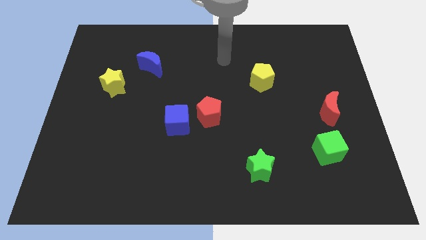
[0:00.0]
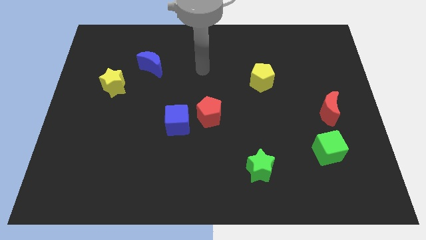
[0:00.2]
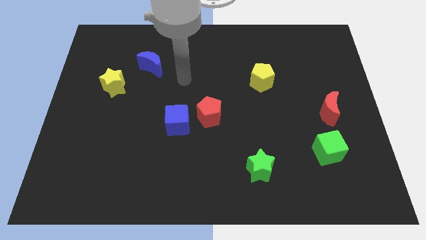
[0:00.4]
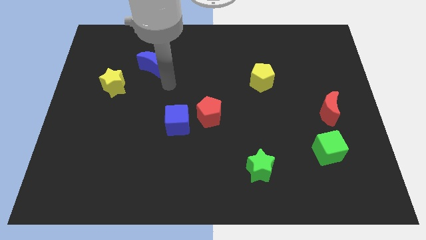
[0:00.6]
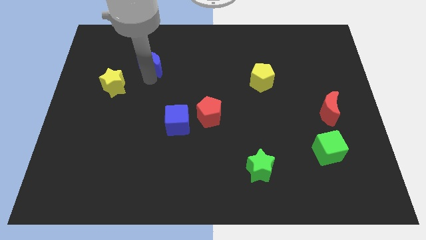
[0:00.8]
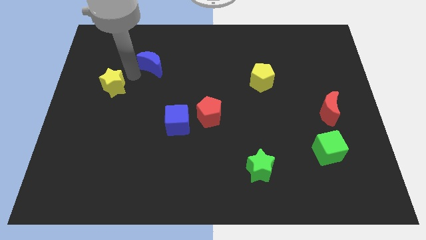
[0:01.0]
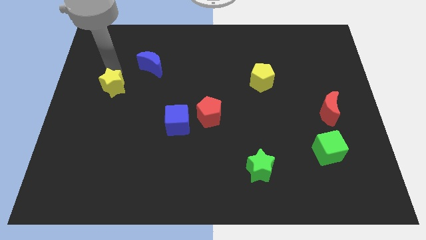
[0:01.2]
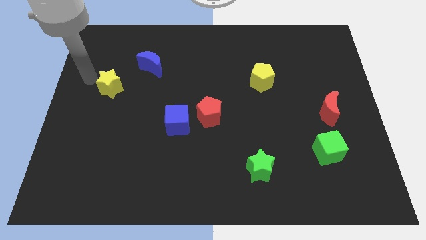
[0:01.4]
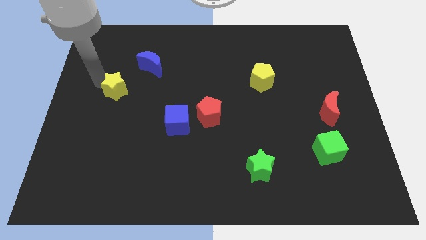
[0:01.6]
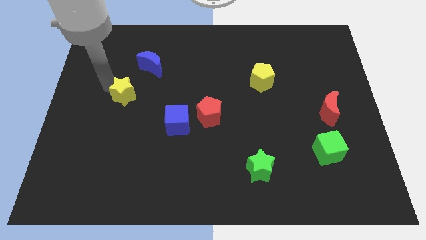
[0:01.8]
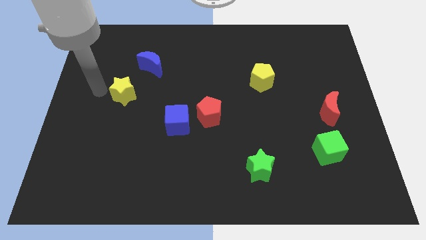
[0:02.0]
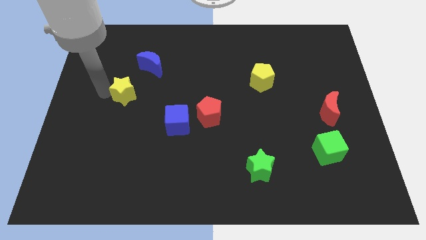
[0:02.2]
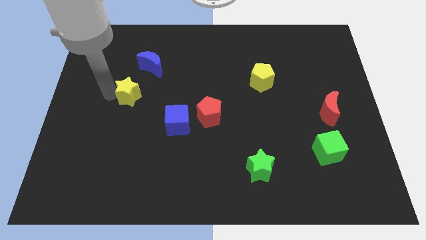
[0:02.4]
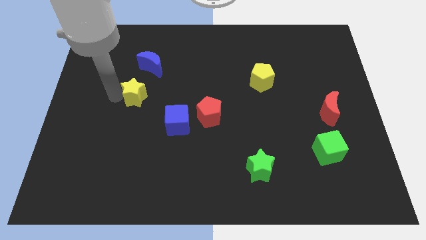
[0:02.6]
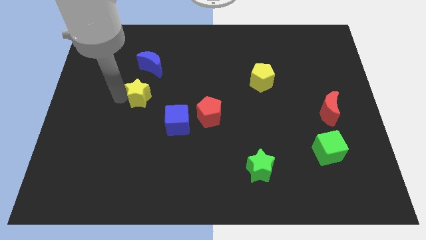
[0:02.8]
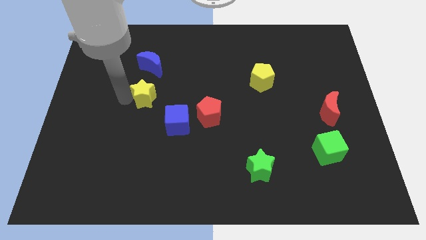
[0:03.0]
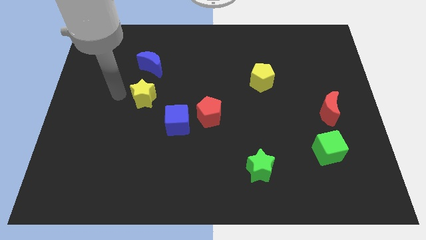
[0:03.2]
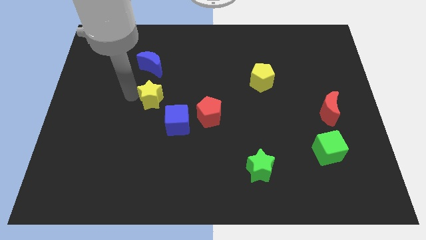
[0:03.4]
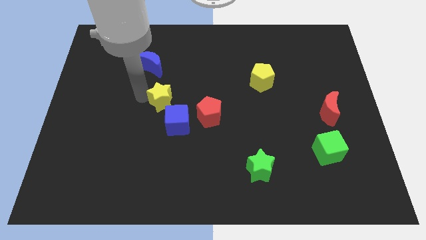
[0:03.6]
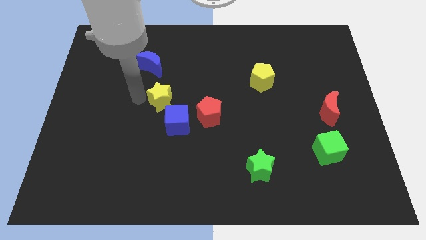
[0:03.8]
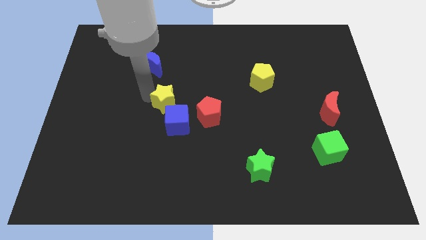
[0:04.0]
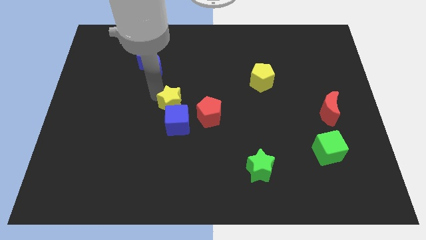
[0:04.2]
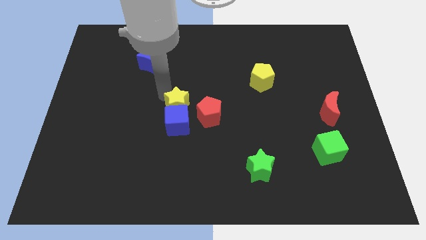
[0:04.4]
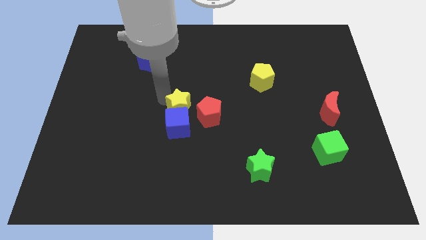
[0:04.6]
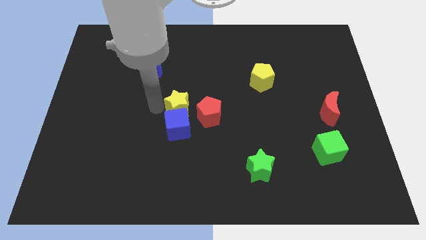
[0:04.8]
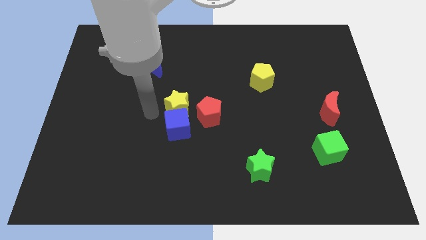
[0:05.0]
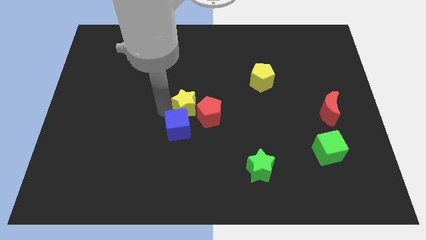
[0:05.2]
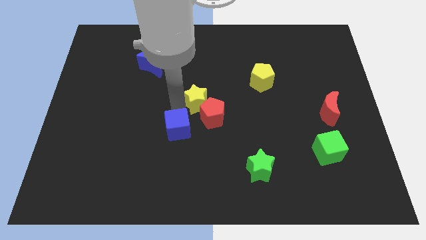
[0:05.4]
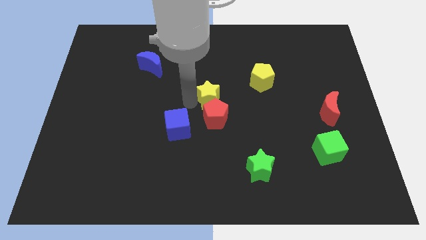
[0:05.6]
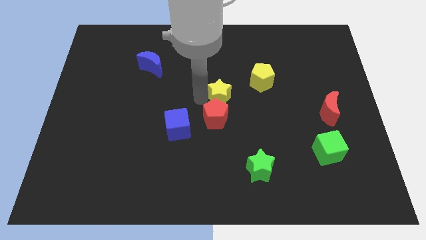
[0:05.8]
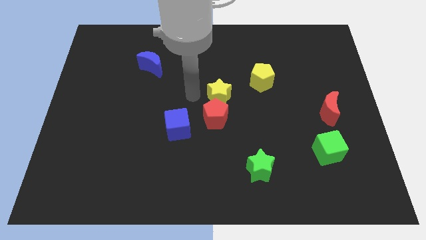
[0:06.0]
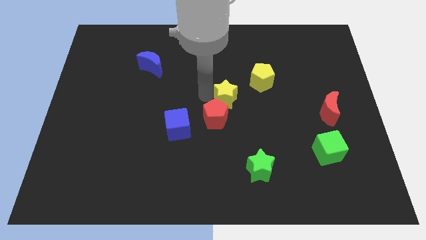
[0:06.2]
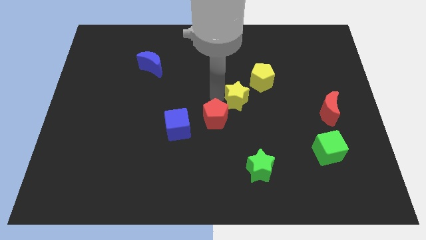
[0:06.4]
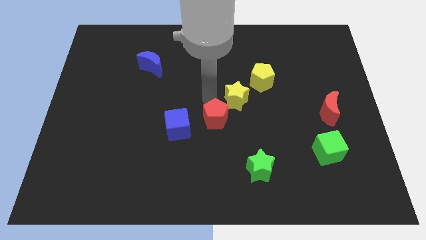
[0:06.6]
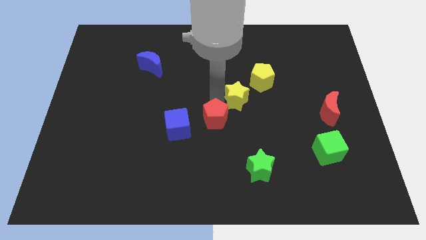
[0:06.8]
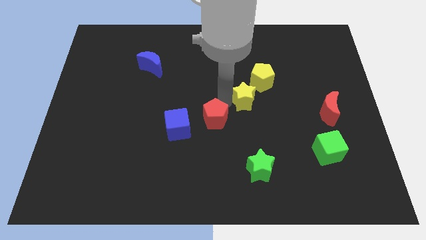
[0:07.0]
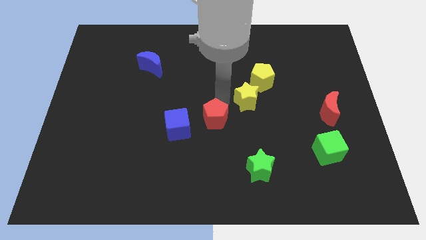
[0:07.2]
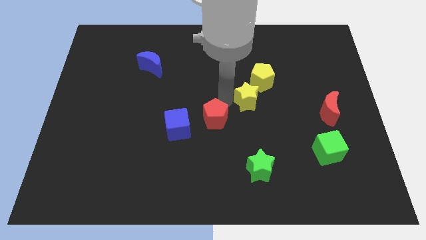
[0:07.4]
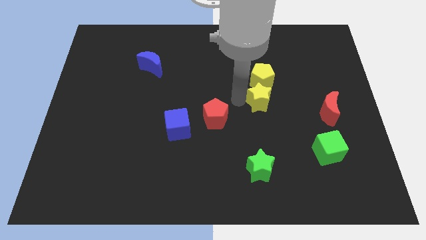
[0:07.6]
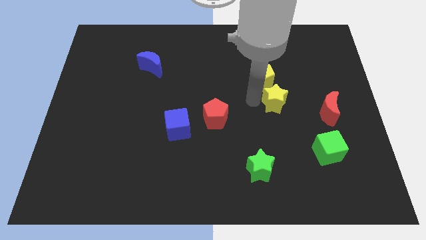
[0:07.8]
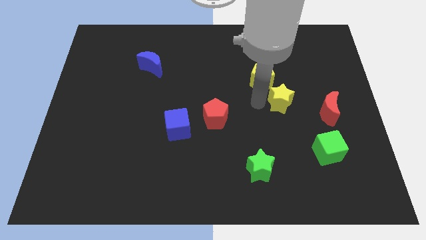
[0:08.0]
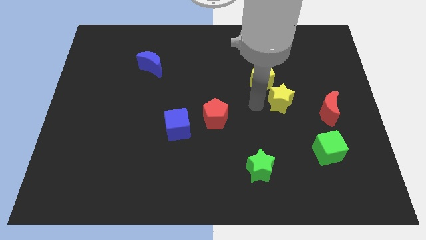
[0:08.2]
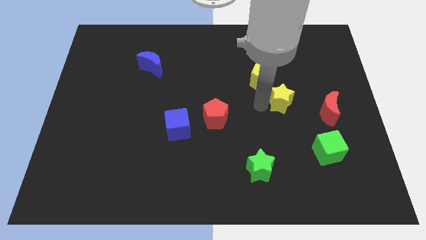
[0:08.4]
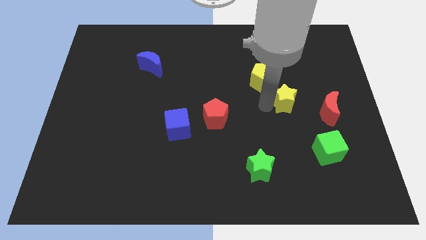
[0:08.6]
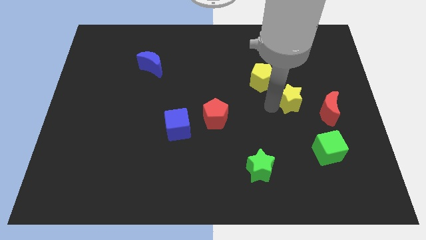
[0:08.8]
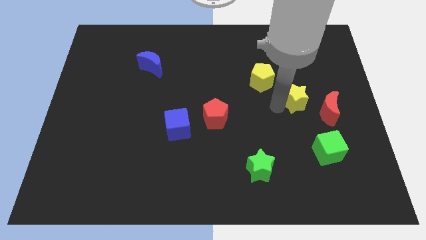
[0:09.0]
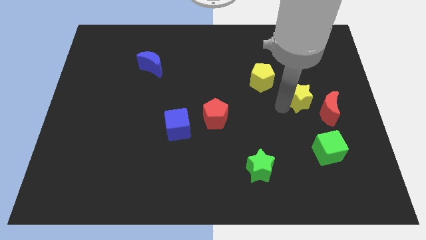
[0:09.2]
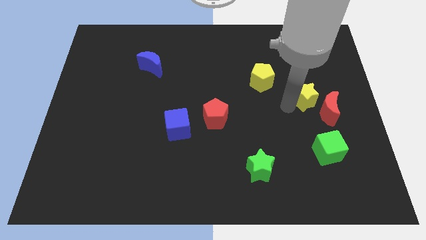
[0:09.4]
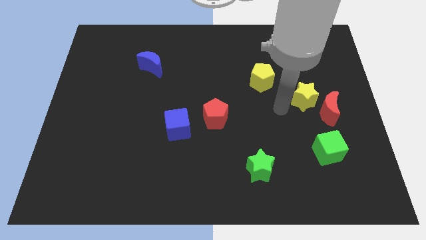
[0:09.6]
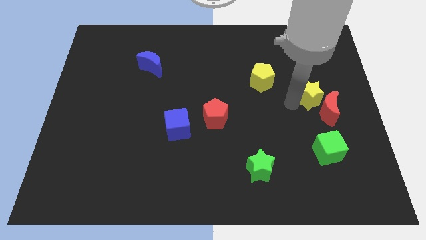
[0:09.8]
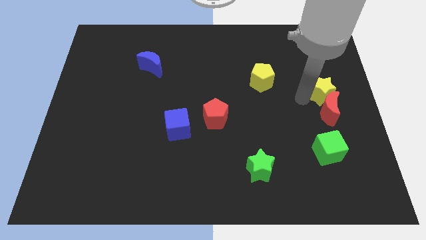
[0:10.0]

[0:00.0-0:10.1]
move the yellow star to the right side of the board

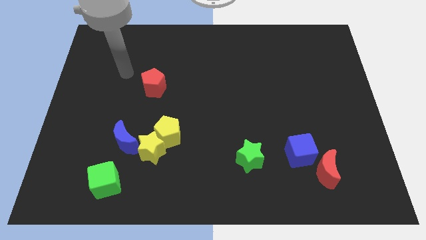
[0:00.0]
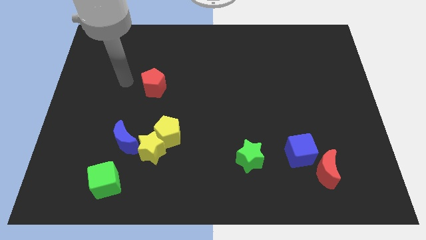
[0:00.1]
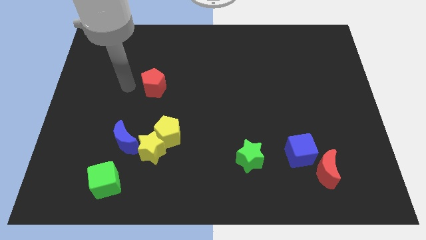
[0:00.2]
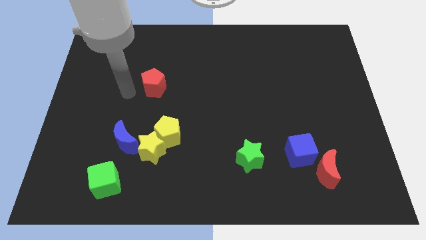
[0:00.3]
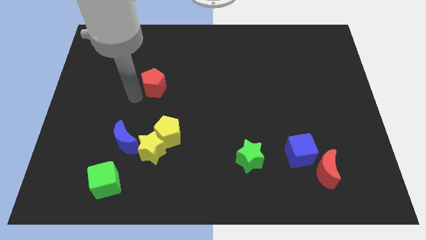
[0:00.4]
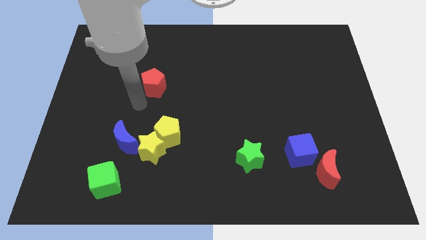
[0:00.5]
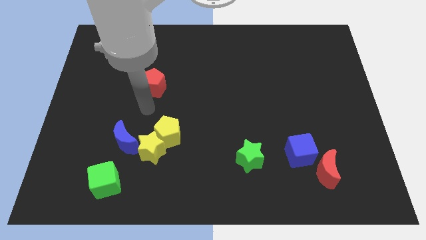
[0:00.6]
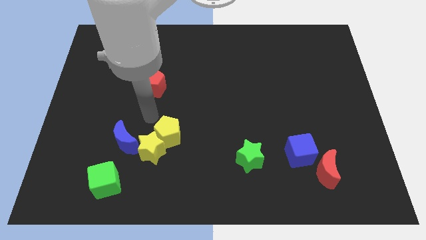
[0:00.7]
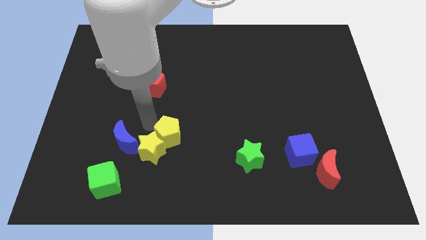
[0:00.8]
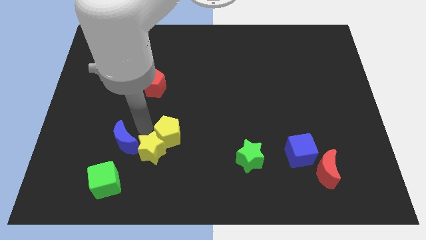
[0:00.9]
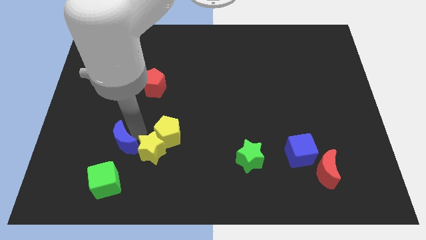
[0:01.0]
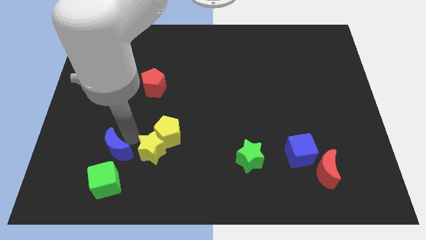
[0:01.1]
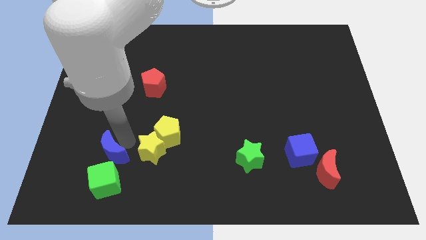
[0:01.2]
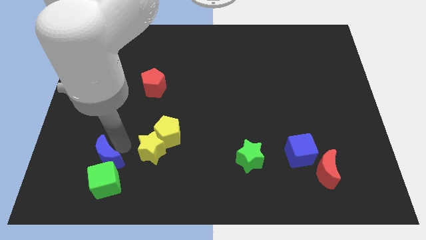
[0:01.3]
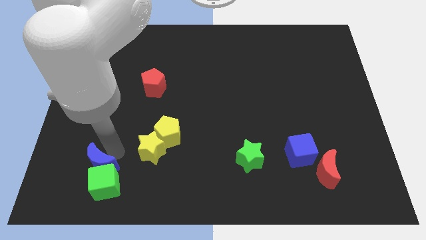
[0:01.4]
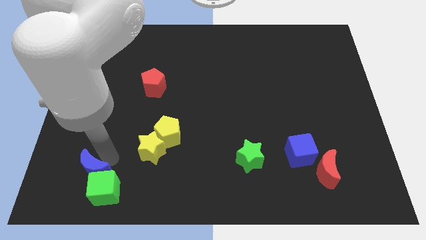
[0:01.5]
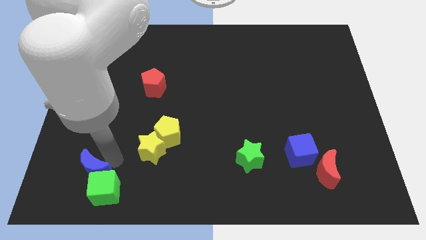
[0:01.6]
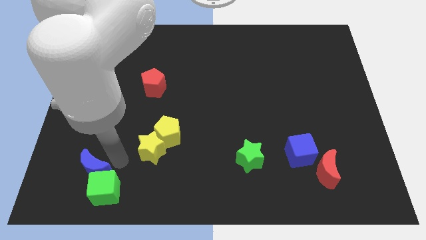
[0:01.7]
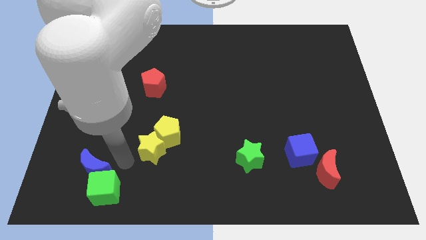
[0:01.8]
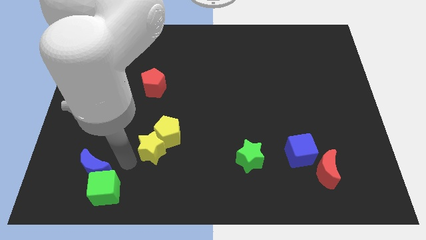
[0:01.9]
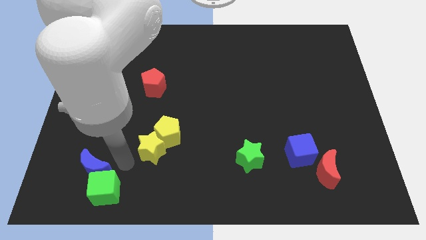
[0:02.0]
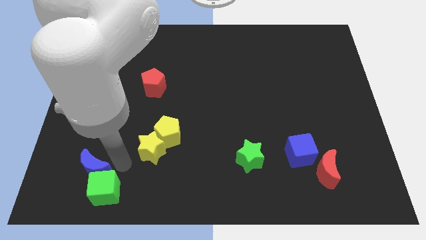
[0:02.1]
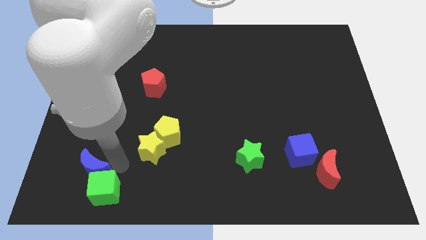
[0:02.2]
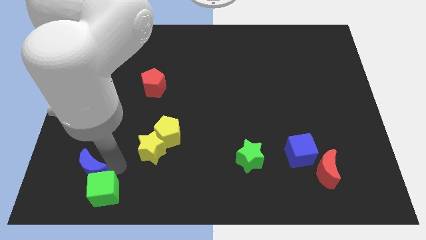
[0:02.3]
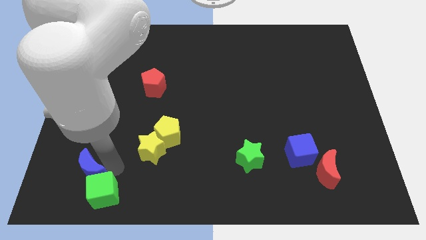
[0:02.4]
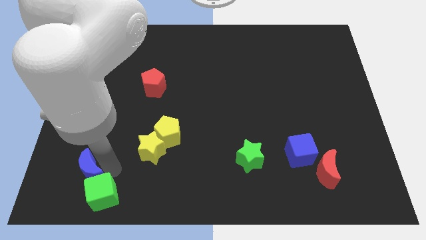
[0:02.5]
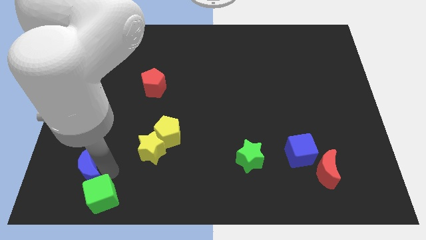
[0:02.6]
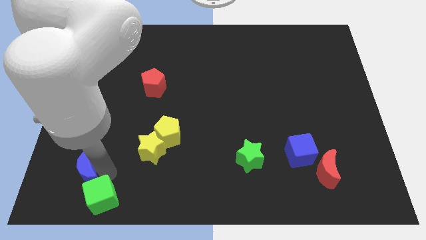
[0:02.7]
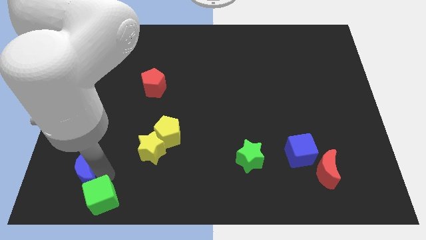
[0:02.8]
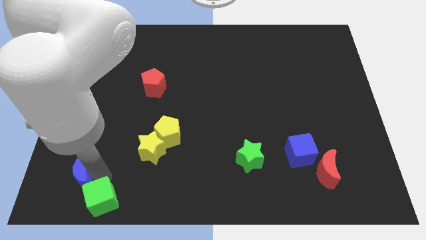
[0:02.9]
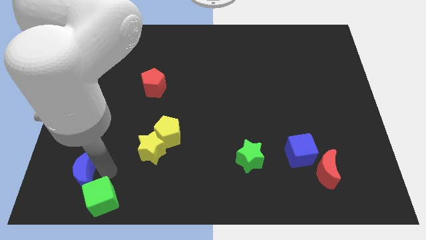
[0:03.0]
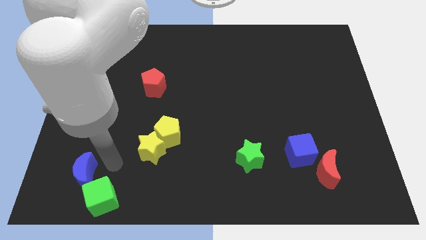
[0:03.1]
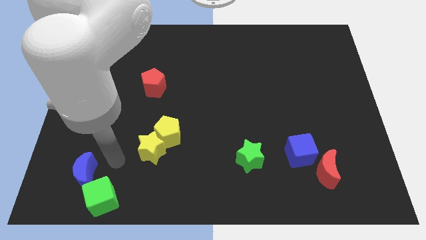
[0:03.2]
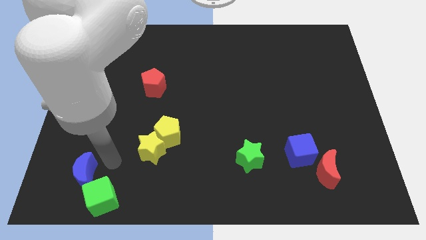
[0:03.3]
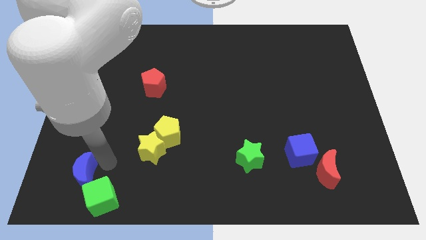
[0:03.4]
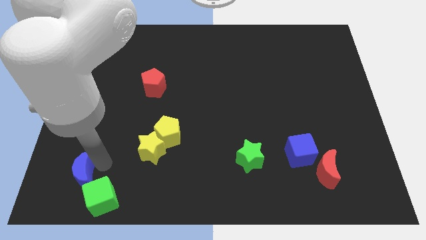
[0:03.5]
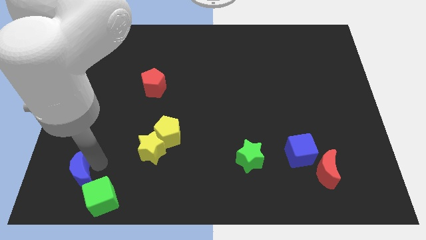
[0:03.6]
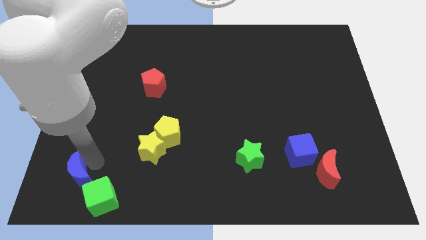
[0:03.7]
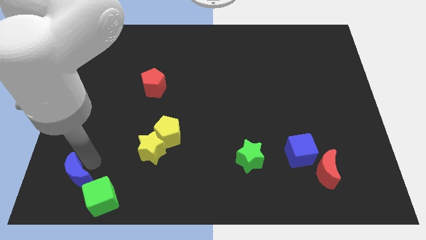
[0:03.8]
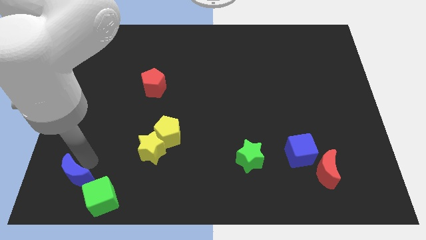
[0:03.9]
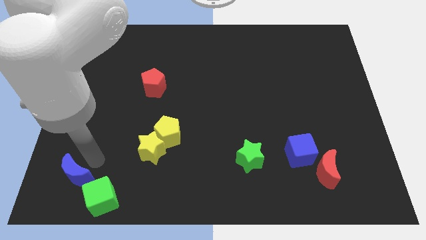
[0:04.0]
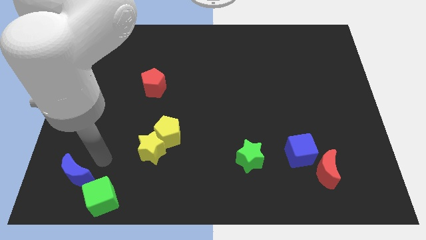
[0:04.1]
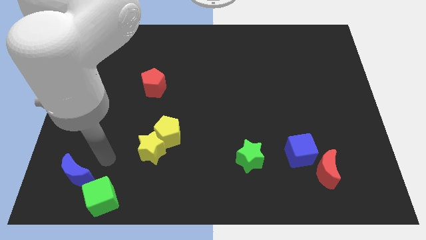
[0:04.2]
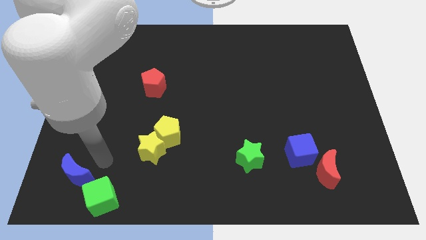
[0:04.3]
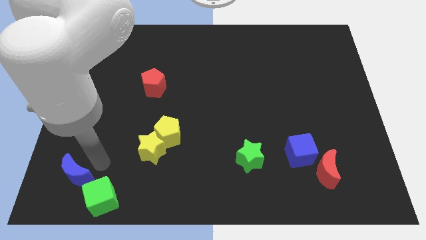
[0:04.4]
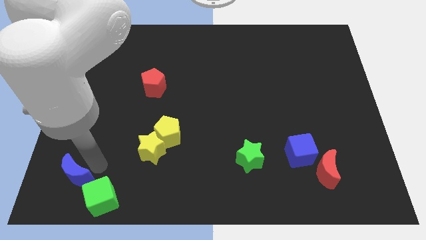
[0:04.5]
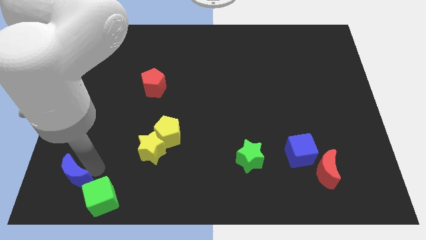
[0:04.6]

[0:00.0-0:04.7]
put the blue moon to the bottom left of the board
